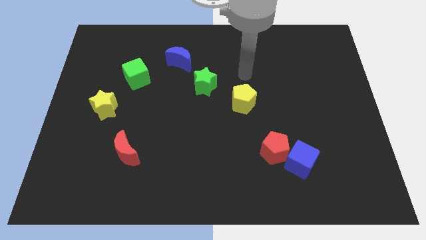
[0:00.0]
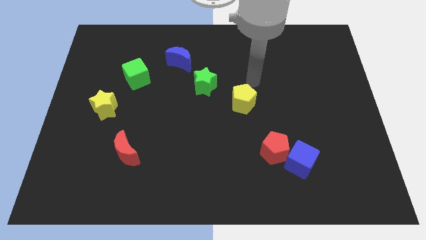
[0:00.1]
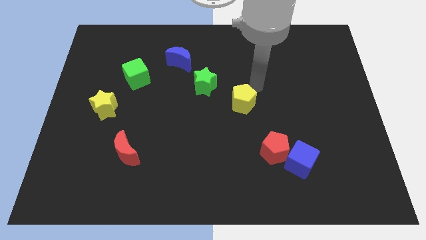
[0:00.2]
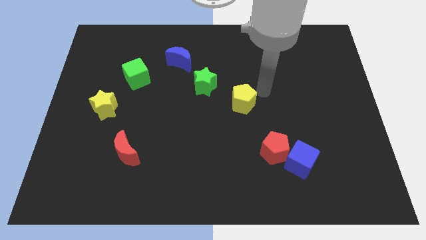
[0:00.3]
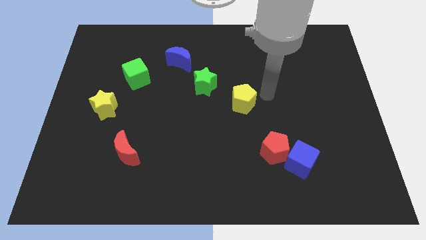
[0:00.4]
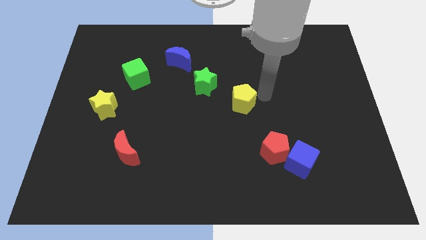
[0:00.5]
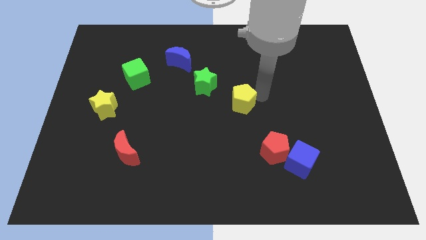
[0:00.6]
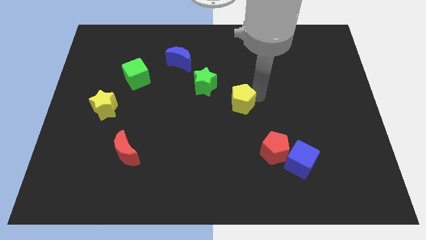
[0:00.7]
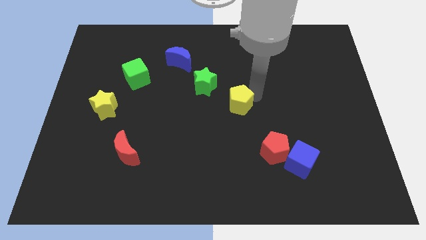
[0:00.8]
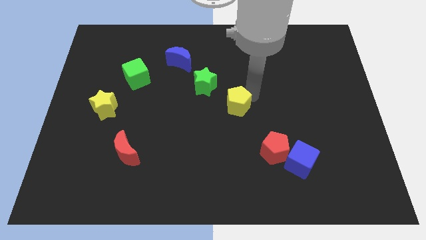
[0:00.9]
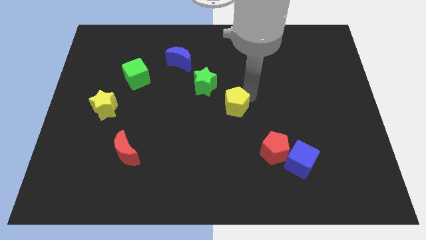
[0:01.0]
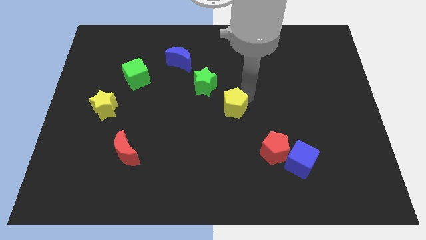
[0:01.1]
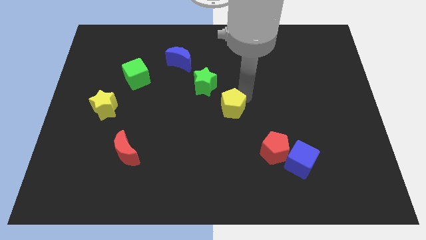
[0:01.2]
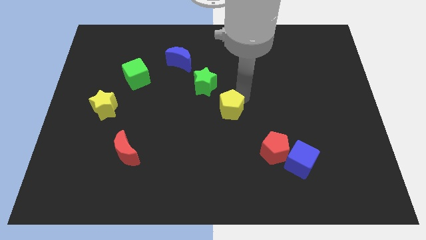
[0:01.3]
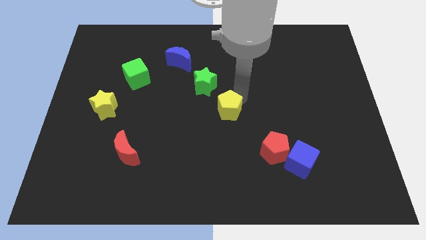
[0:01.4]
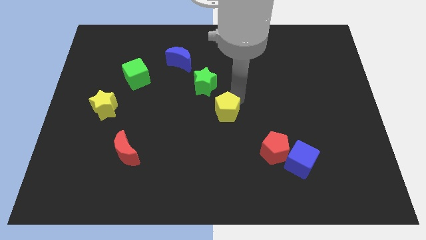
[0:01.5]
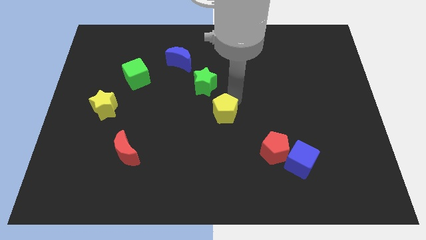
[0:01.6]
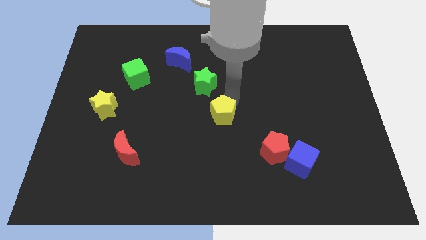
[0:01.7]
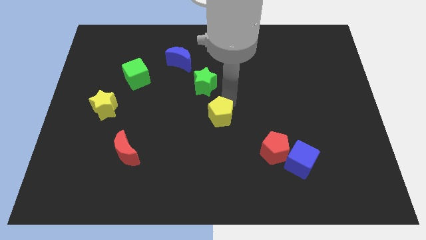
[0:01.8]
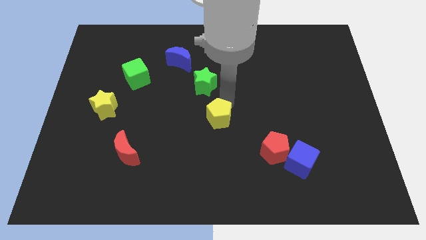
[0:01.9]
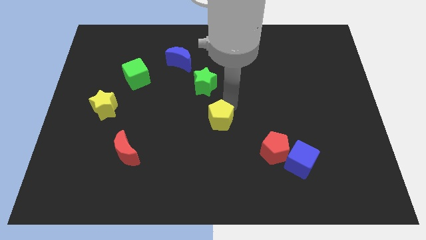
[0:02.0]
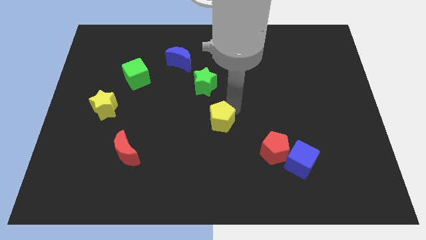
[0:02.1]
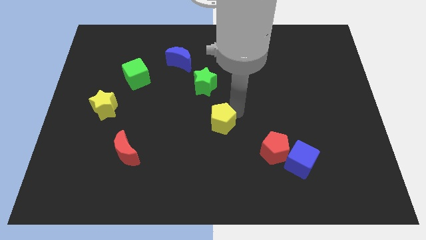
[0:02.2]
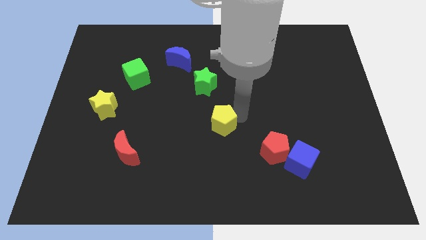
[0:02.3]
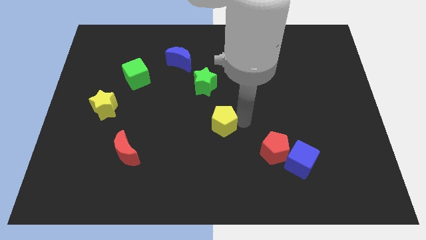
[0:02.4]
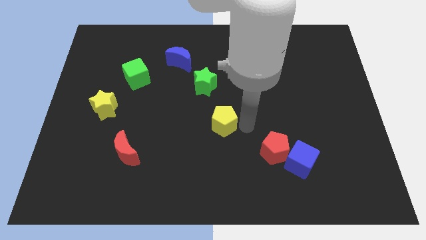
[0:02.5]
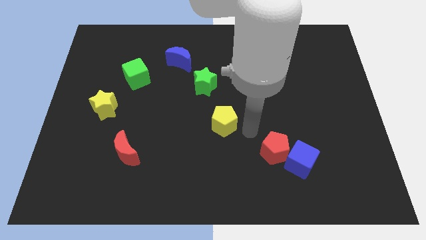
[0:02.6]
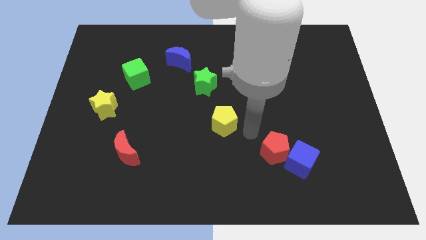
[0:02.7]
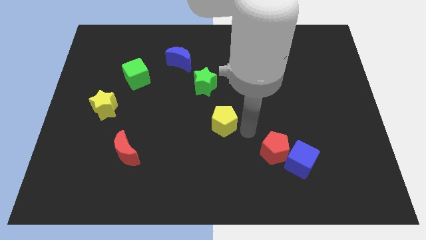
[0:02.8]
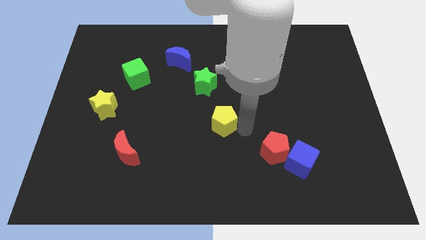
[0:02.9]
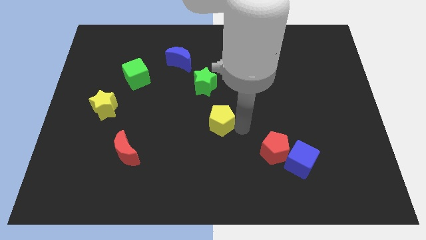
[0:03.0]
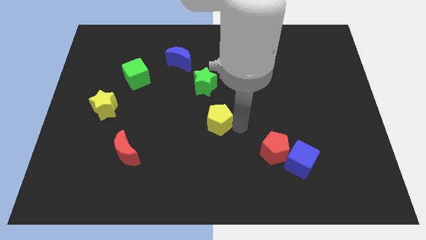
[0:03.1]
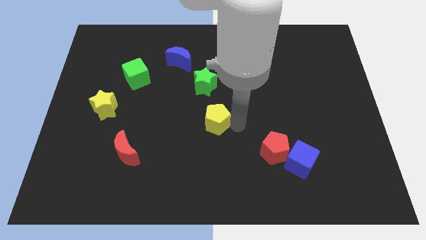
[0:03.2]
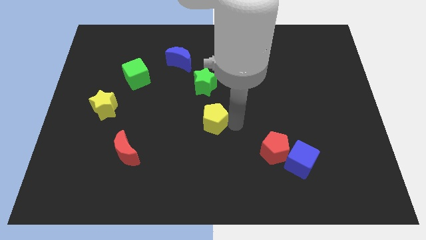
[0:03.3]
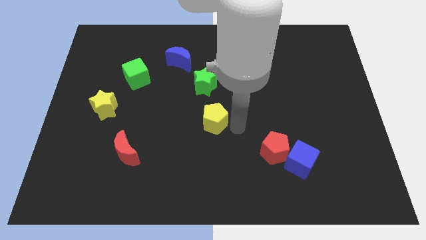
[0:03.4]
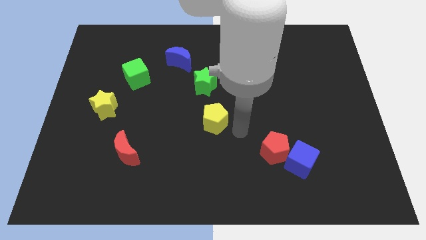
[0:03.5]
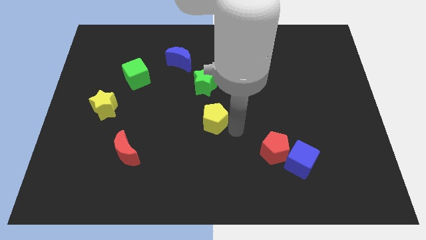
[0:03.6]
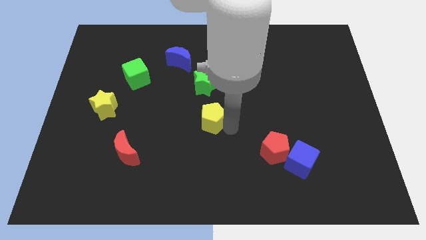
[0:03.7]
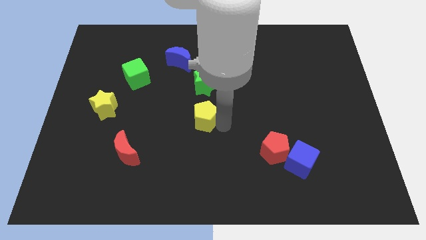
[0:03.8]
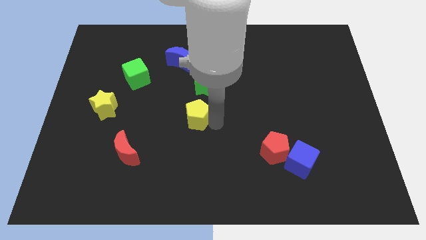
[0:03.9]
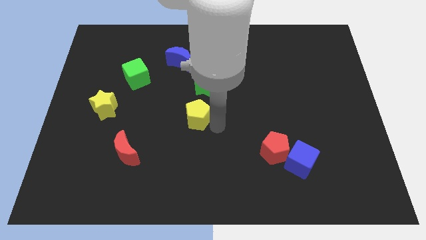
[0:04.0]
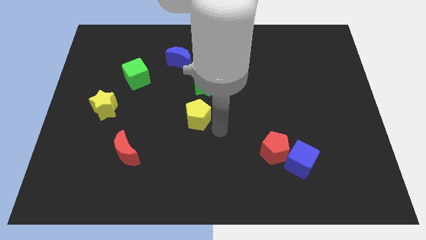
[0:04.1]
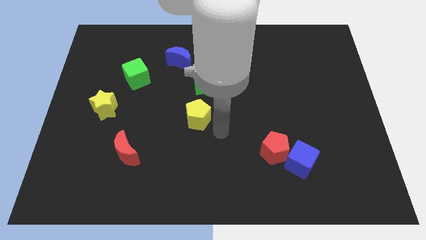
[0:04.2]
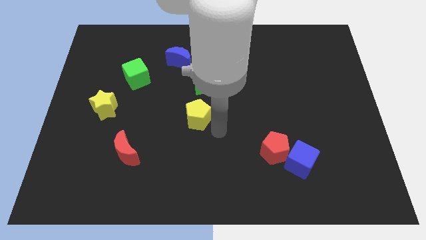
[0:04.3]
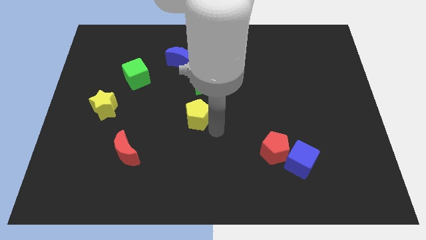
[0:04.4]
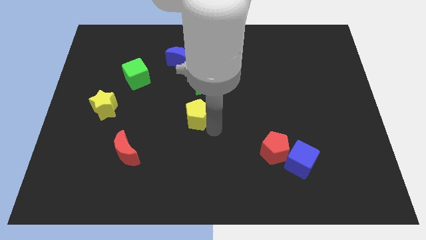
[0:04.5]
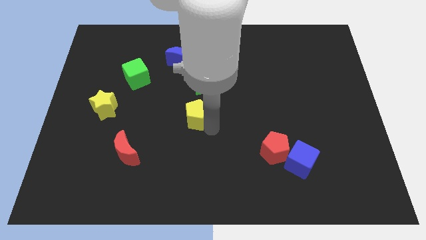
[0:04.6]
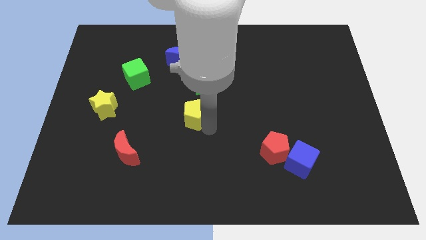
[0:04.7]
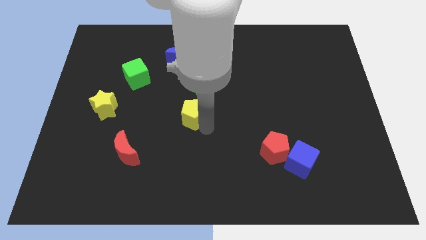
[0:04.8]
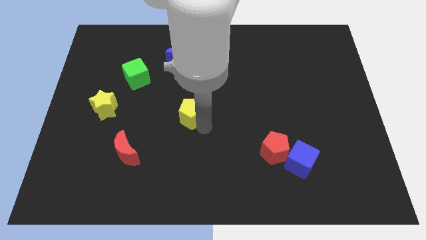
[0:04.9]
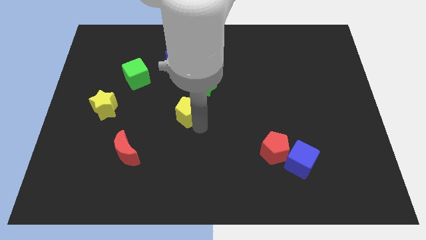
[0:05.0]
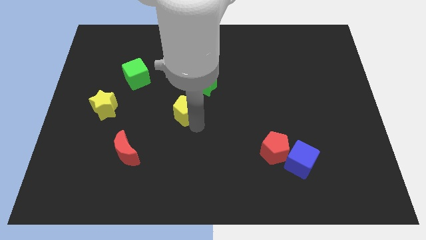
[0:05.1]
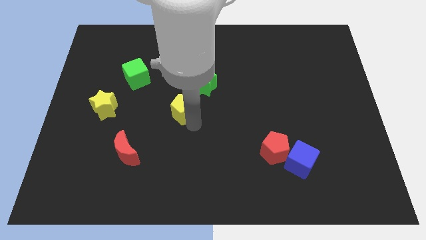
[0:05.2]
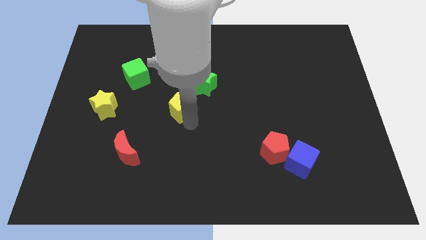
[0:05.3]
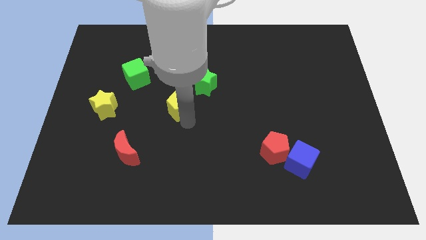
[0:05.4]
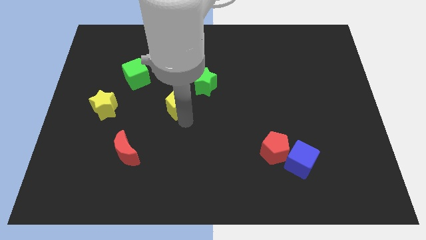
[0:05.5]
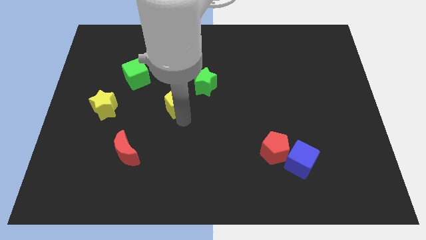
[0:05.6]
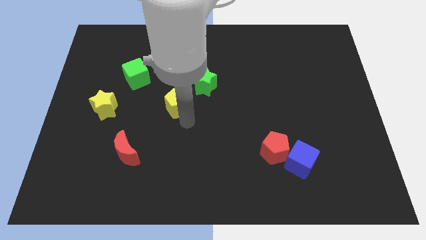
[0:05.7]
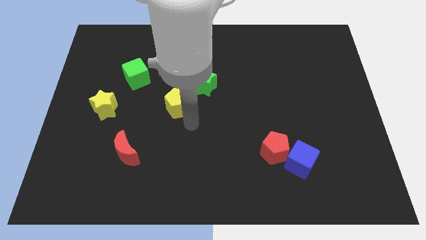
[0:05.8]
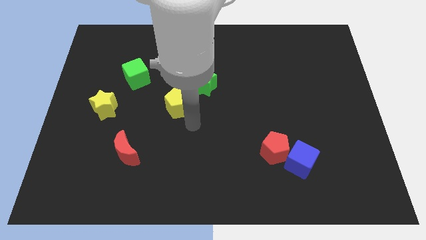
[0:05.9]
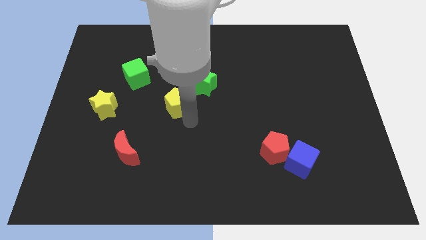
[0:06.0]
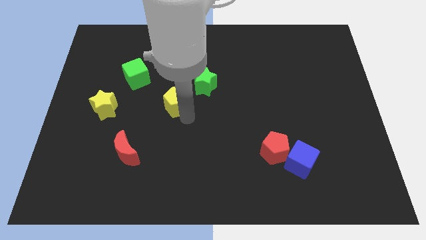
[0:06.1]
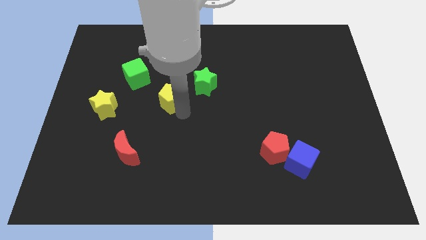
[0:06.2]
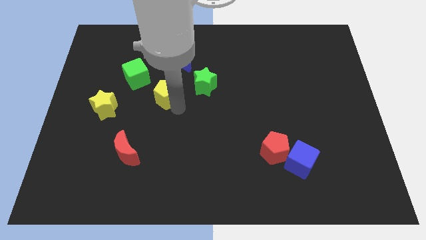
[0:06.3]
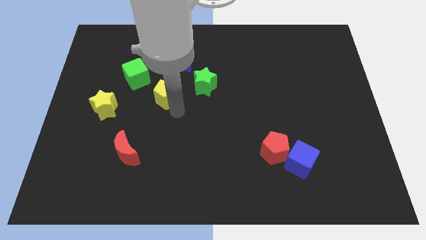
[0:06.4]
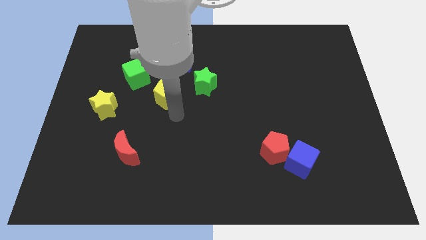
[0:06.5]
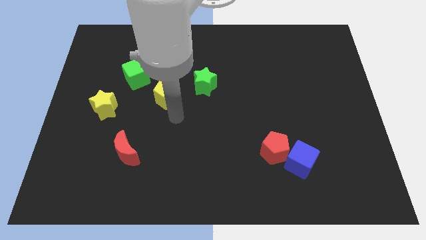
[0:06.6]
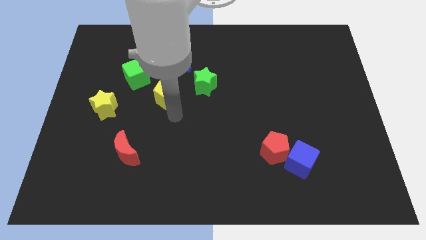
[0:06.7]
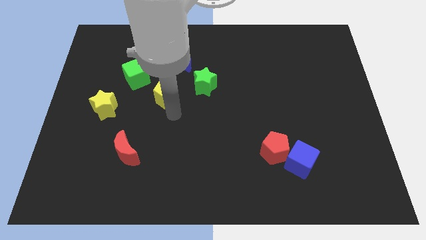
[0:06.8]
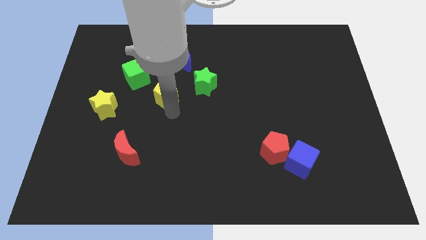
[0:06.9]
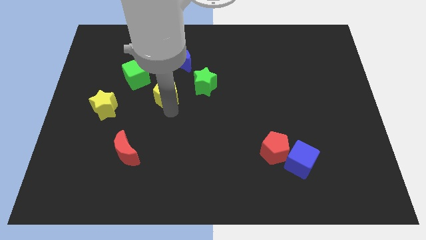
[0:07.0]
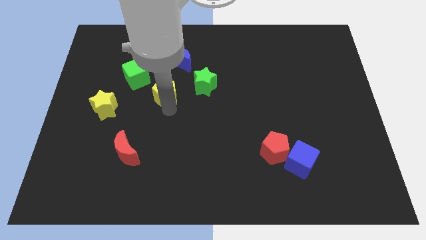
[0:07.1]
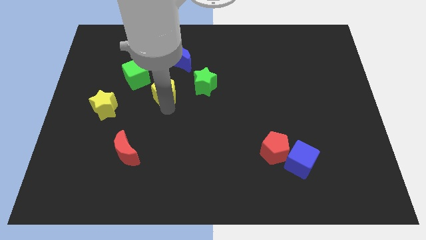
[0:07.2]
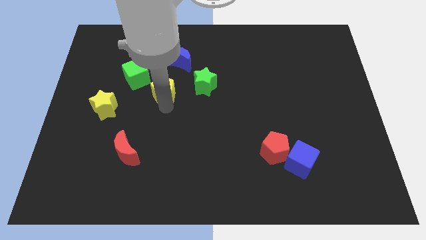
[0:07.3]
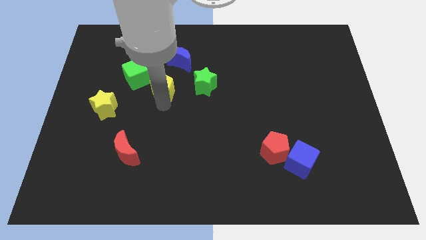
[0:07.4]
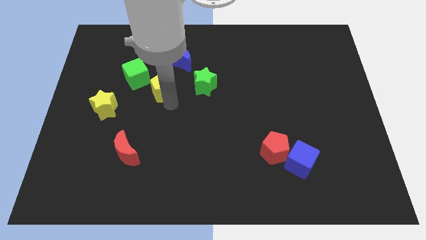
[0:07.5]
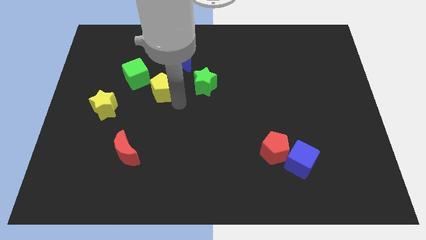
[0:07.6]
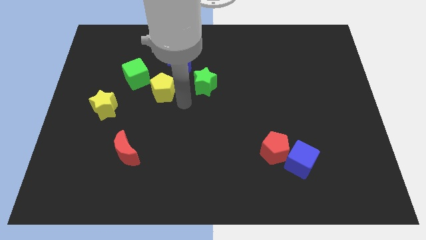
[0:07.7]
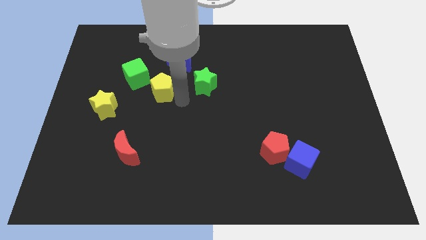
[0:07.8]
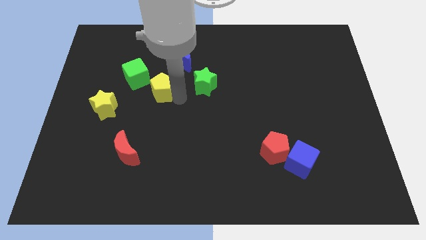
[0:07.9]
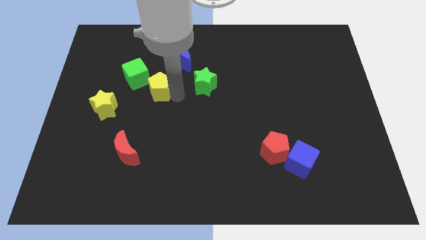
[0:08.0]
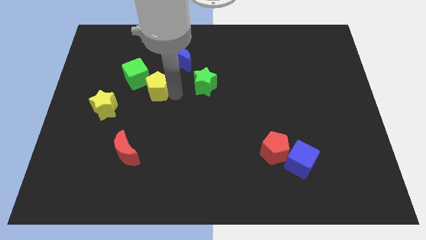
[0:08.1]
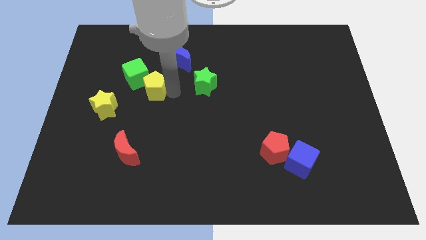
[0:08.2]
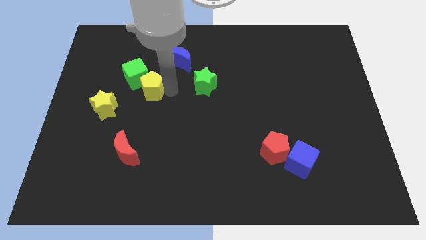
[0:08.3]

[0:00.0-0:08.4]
push the yellow pentagon close to the green cube
